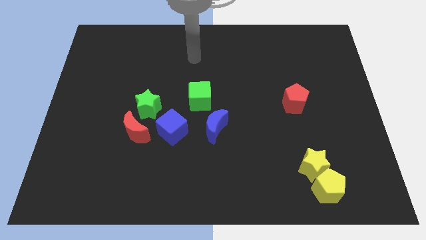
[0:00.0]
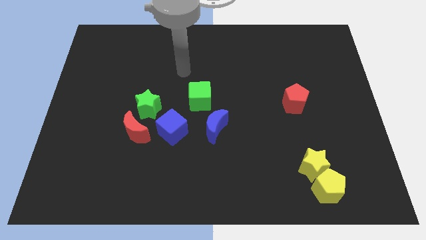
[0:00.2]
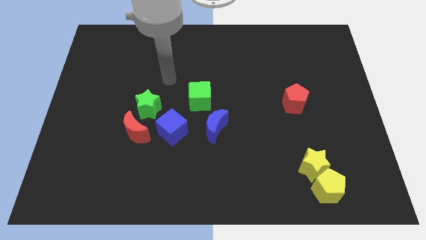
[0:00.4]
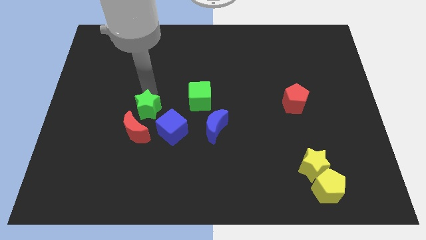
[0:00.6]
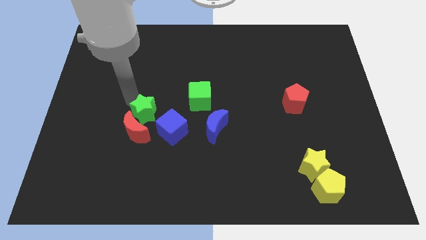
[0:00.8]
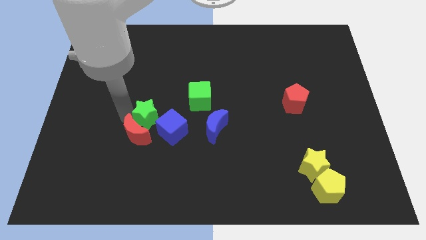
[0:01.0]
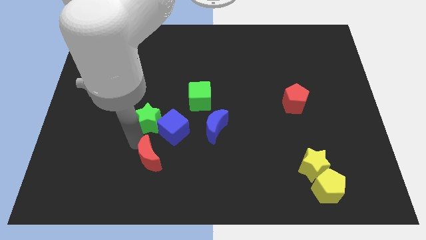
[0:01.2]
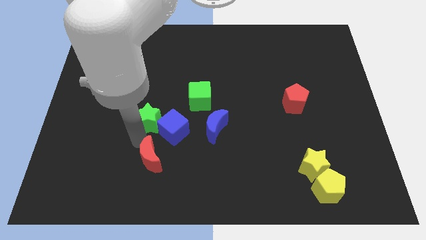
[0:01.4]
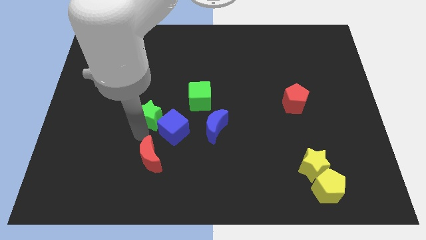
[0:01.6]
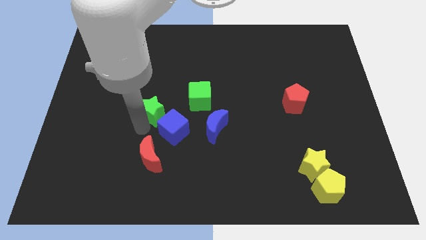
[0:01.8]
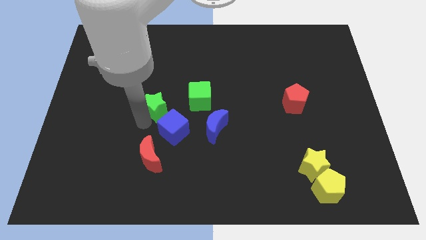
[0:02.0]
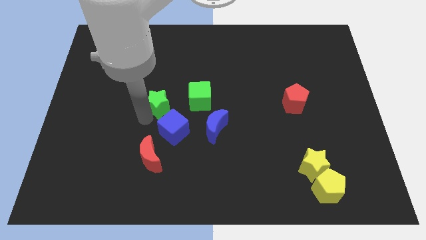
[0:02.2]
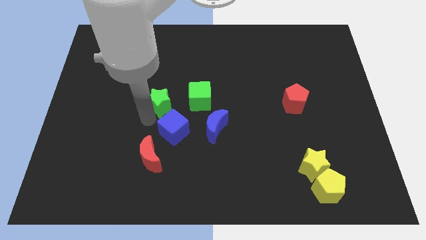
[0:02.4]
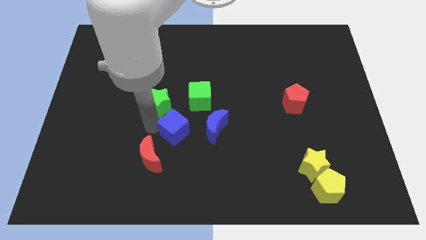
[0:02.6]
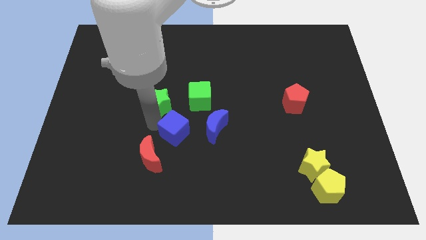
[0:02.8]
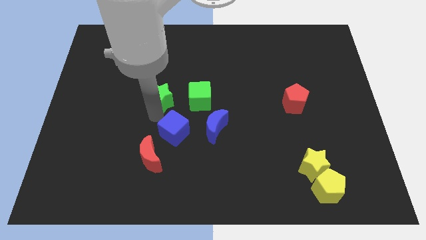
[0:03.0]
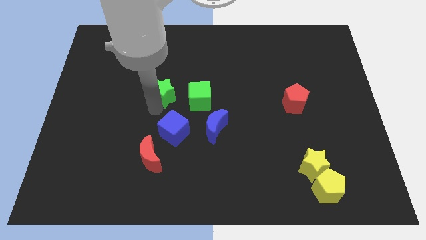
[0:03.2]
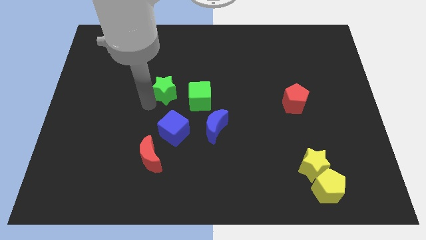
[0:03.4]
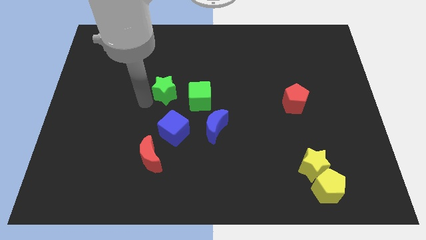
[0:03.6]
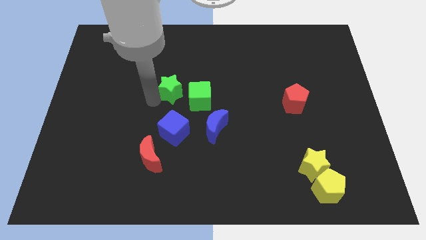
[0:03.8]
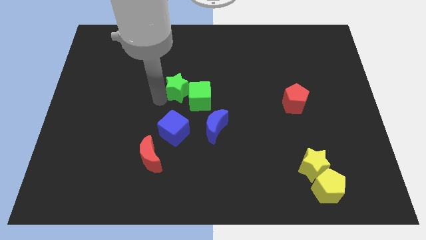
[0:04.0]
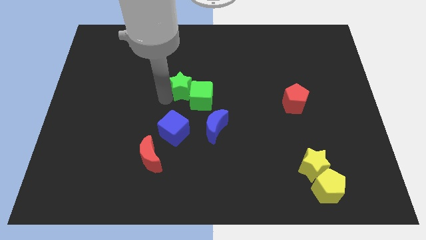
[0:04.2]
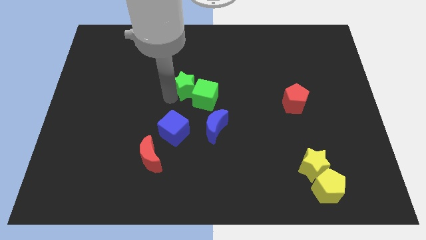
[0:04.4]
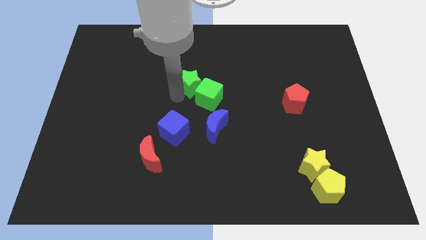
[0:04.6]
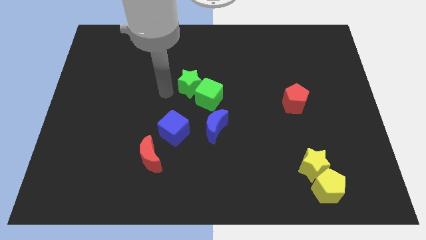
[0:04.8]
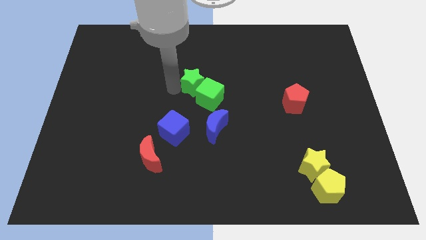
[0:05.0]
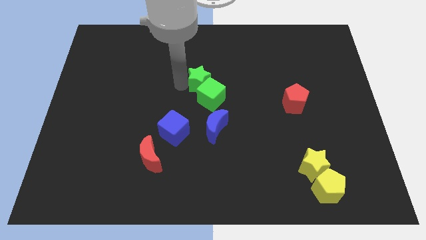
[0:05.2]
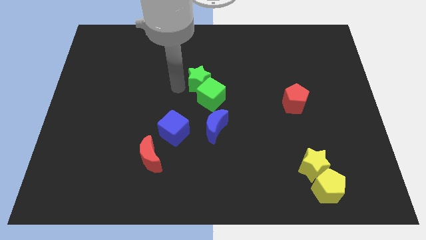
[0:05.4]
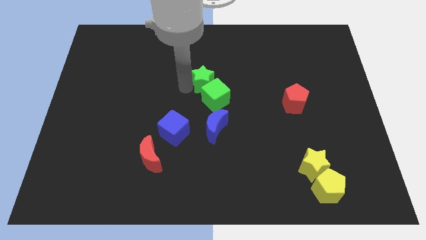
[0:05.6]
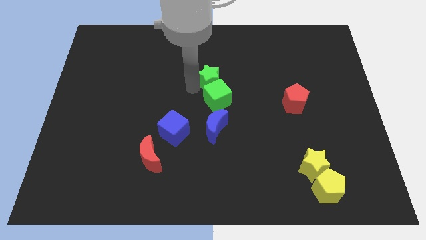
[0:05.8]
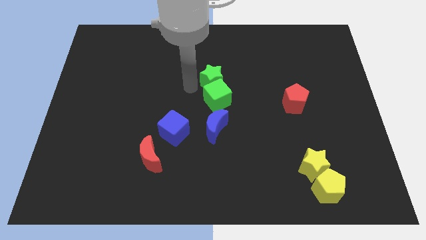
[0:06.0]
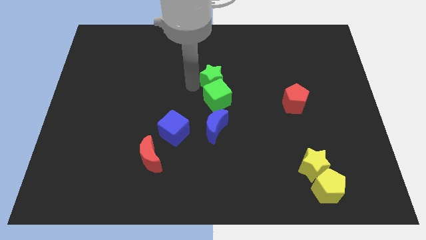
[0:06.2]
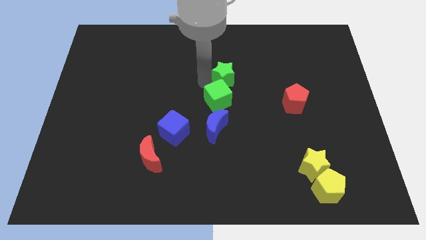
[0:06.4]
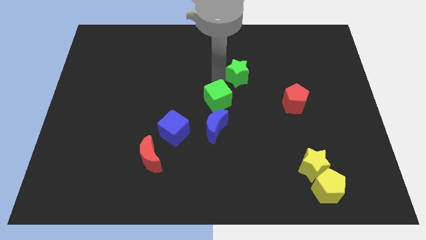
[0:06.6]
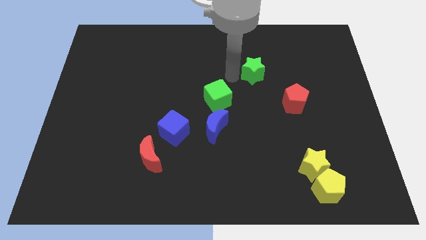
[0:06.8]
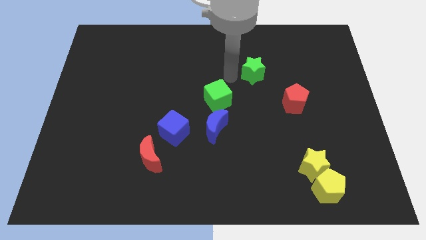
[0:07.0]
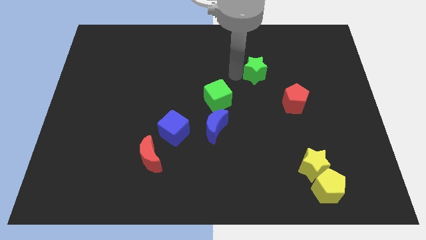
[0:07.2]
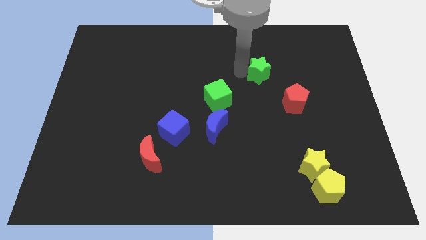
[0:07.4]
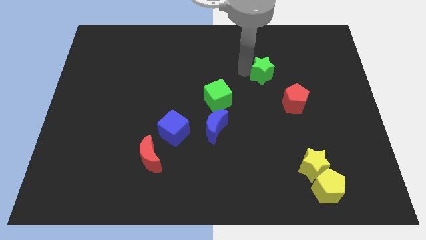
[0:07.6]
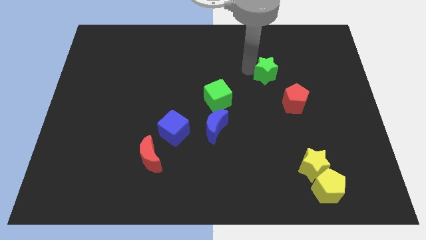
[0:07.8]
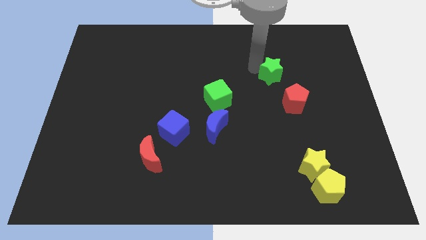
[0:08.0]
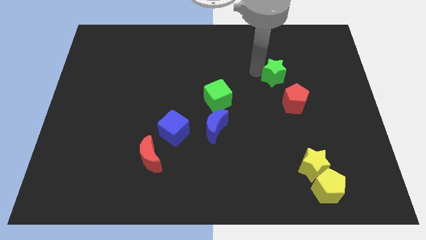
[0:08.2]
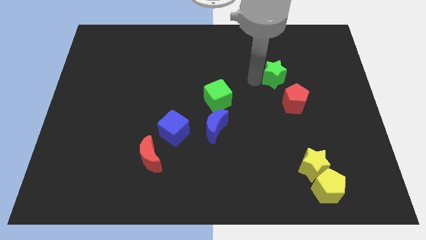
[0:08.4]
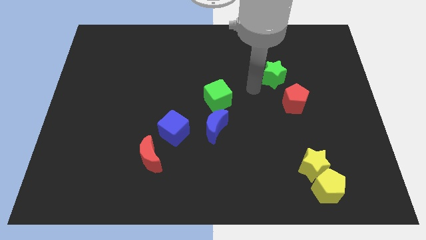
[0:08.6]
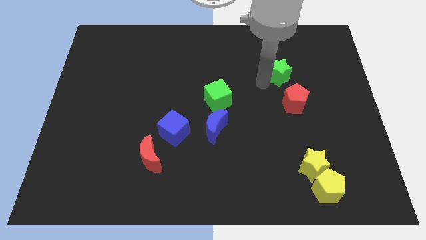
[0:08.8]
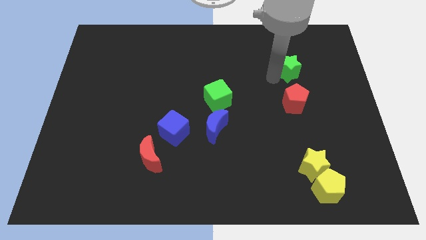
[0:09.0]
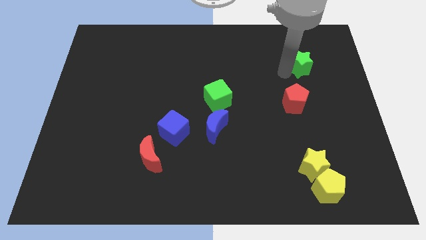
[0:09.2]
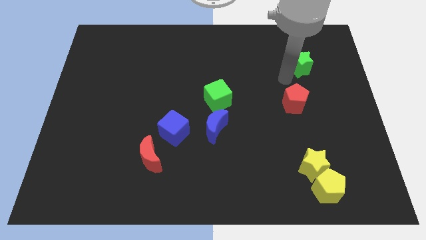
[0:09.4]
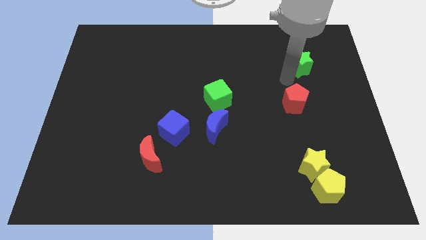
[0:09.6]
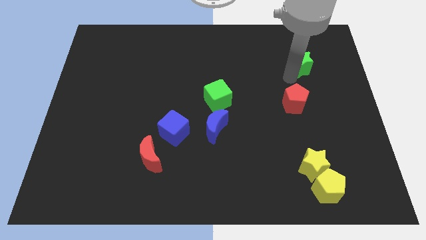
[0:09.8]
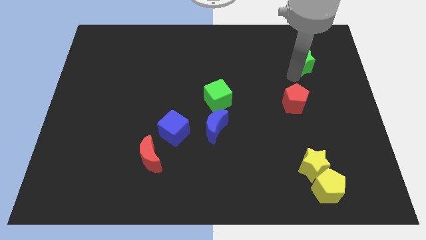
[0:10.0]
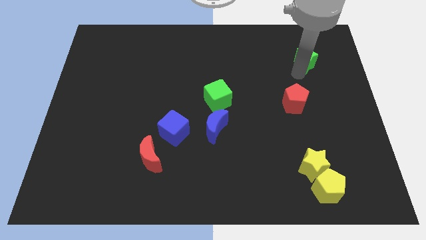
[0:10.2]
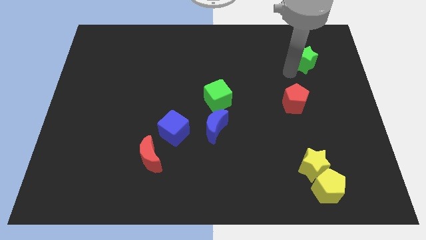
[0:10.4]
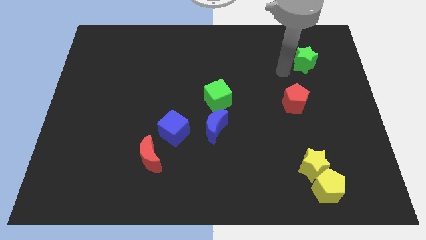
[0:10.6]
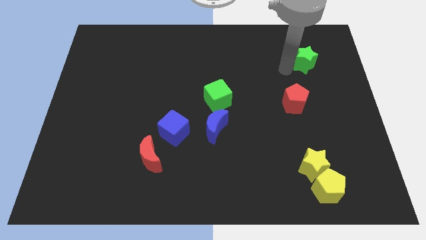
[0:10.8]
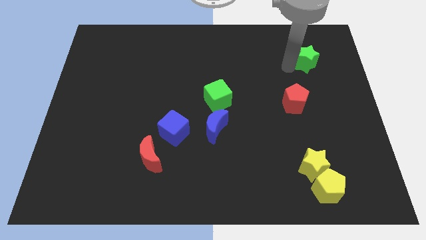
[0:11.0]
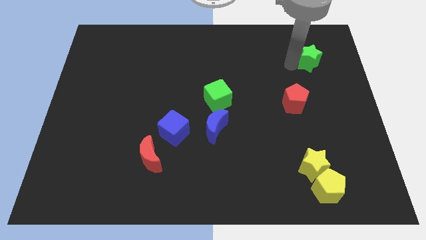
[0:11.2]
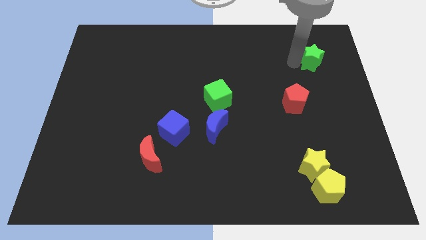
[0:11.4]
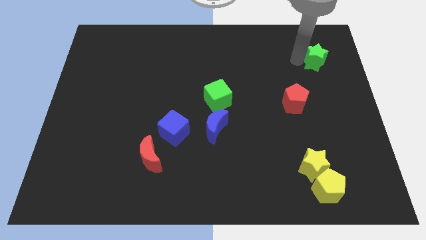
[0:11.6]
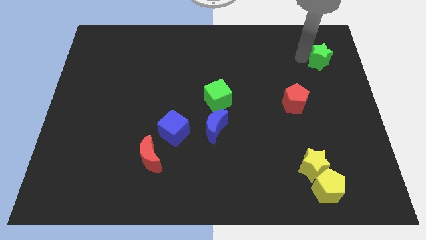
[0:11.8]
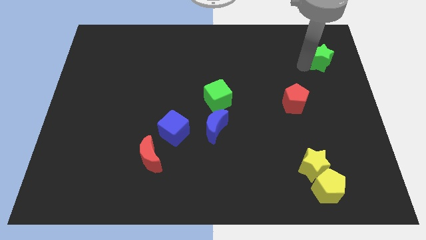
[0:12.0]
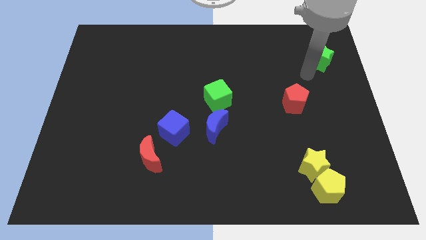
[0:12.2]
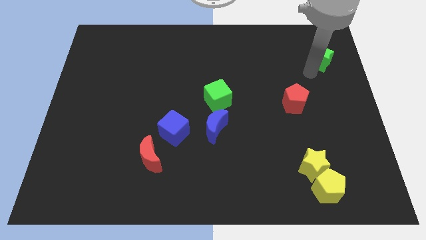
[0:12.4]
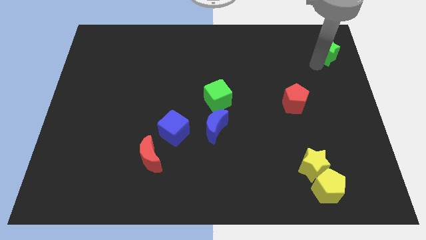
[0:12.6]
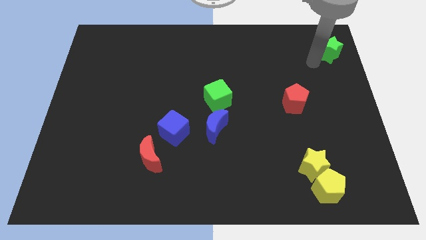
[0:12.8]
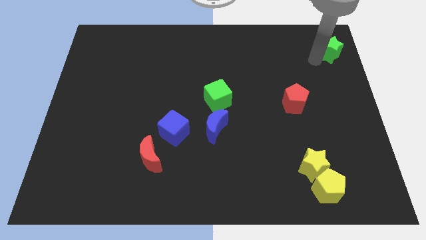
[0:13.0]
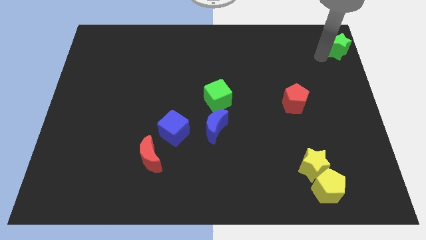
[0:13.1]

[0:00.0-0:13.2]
put the green star to the top right corner

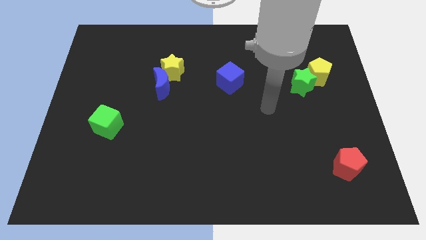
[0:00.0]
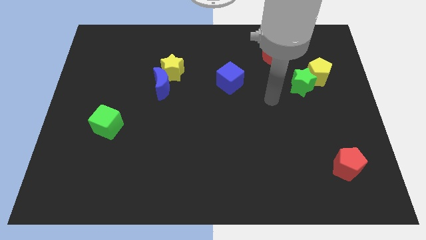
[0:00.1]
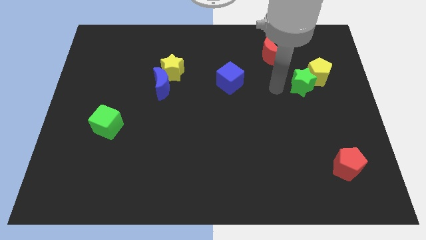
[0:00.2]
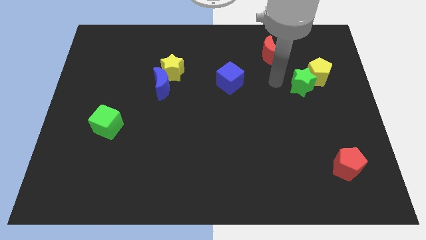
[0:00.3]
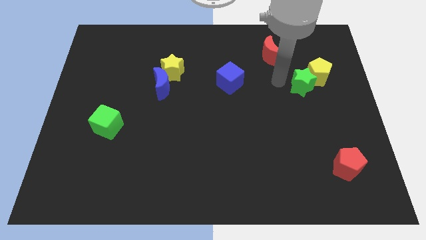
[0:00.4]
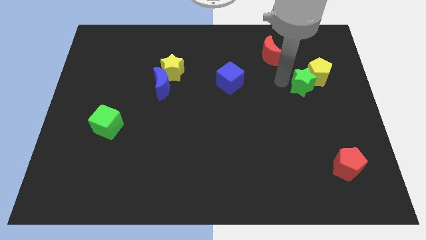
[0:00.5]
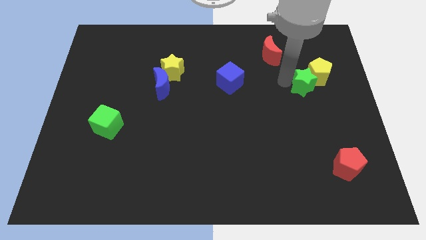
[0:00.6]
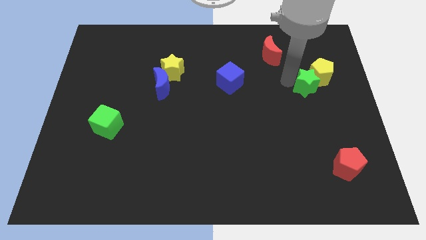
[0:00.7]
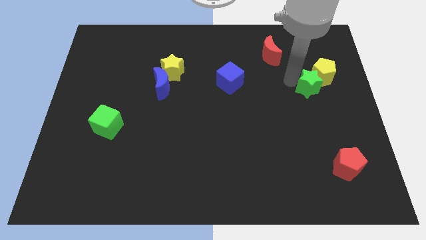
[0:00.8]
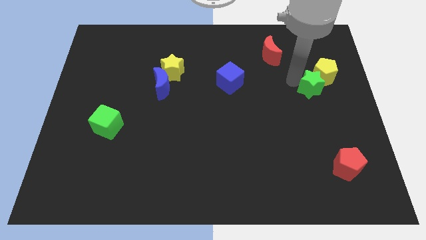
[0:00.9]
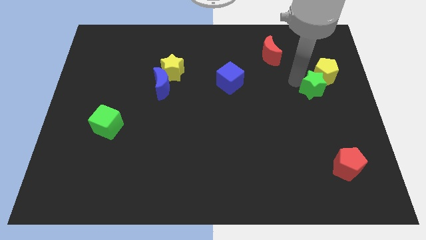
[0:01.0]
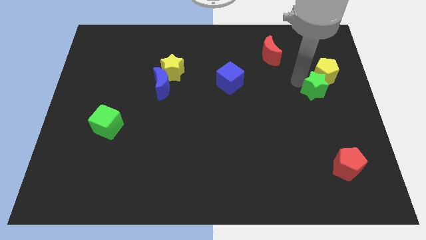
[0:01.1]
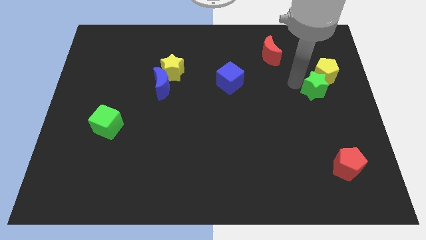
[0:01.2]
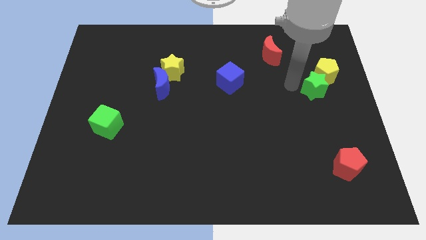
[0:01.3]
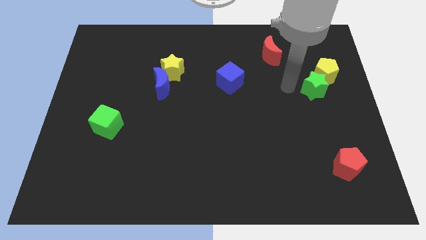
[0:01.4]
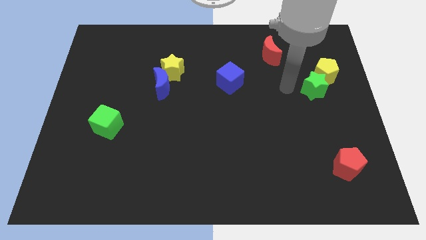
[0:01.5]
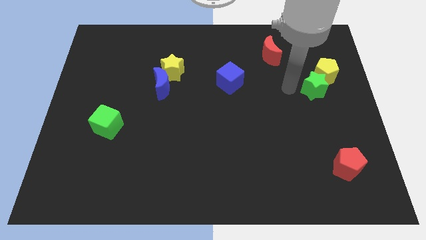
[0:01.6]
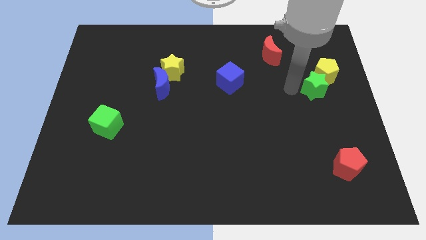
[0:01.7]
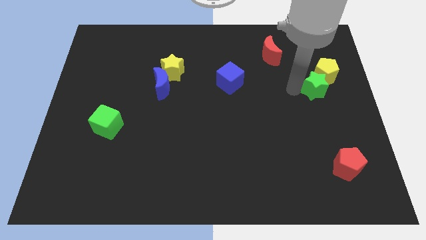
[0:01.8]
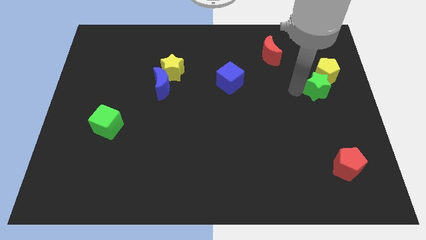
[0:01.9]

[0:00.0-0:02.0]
move the green star to the right side of the board
